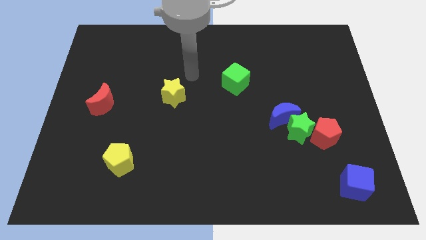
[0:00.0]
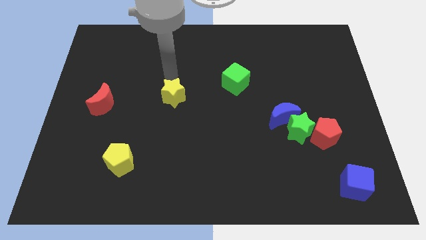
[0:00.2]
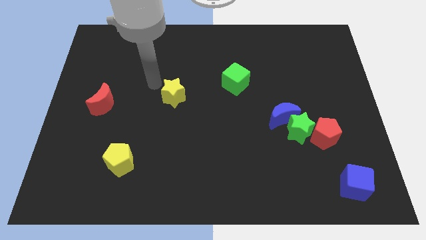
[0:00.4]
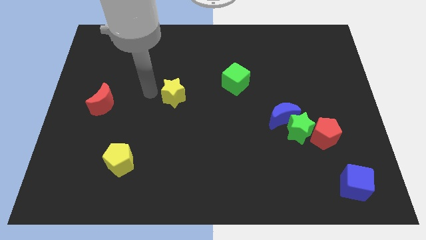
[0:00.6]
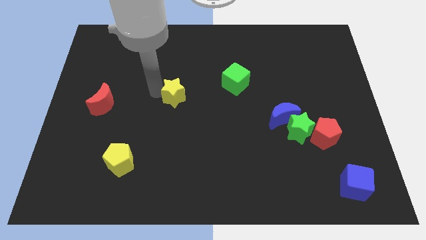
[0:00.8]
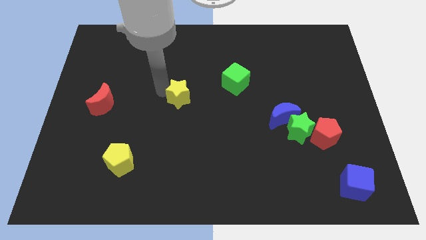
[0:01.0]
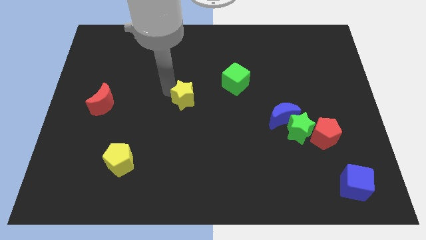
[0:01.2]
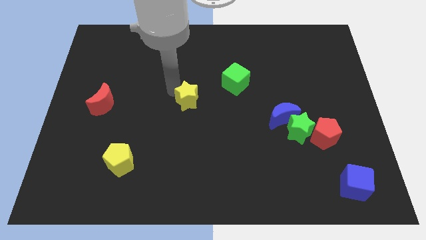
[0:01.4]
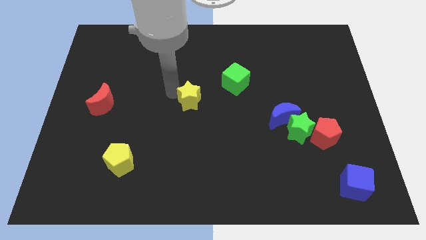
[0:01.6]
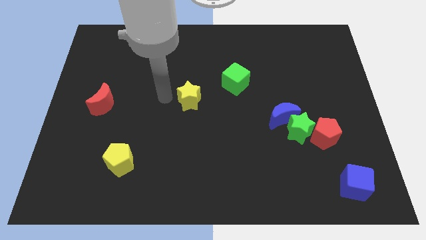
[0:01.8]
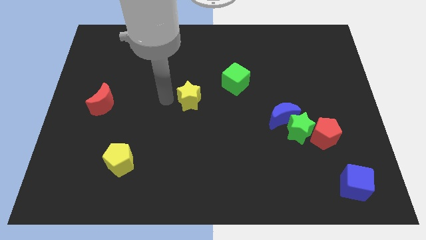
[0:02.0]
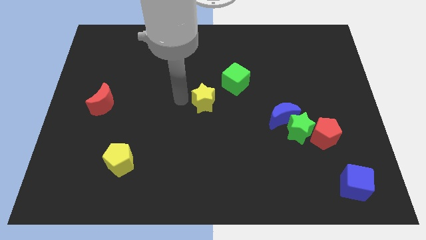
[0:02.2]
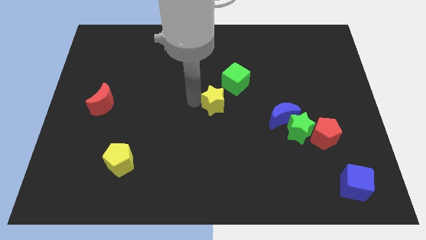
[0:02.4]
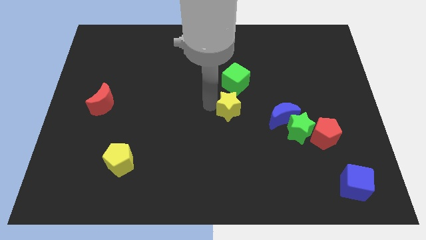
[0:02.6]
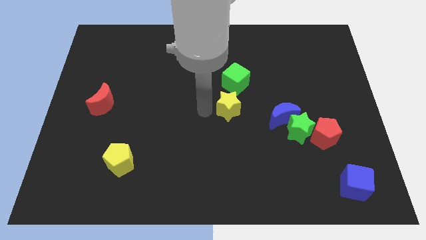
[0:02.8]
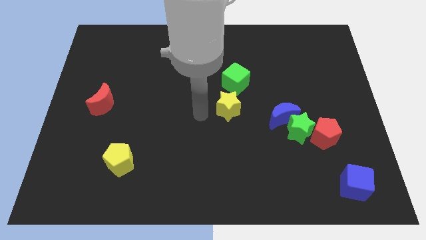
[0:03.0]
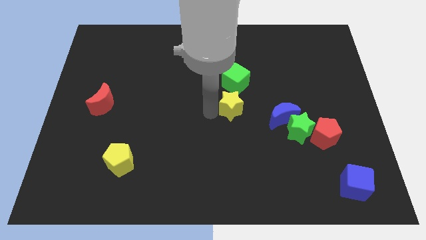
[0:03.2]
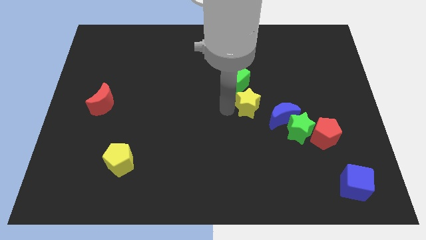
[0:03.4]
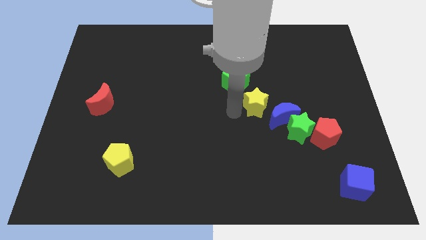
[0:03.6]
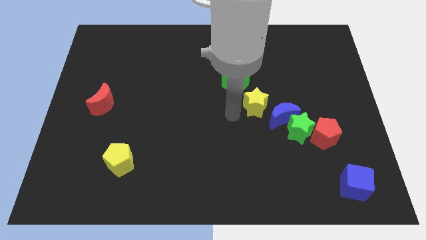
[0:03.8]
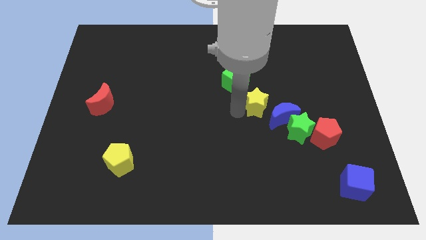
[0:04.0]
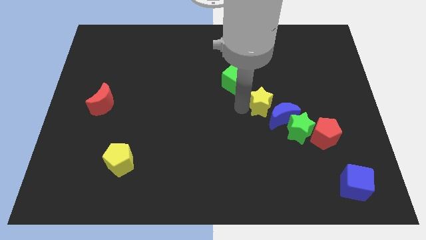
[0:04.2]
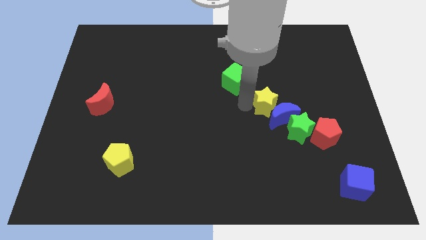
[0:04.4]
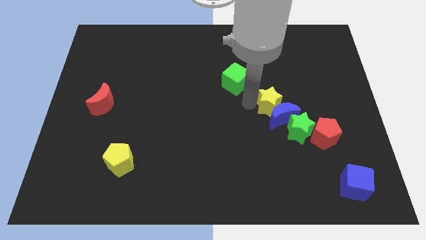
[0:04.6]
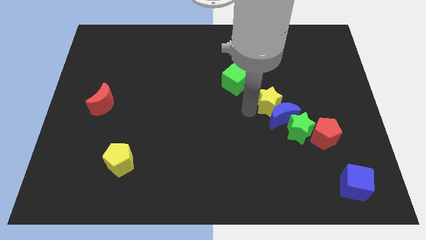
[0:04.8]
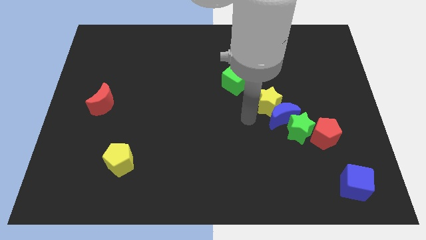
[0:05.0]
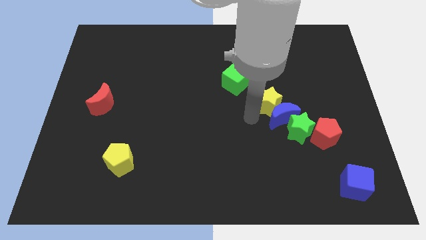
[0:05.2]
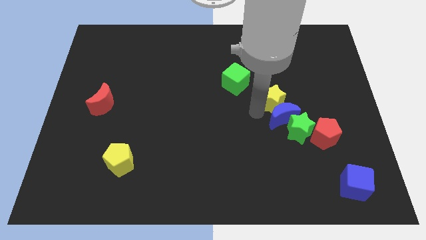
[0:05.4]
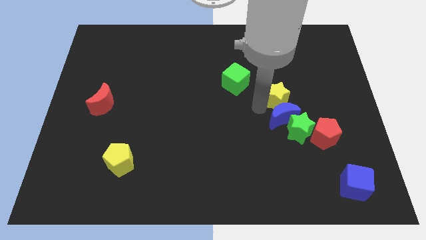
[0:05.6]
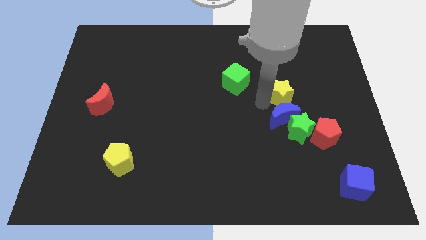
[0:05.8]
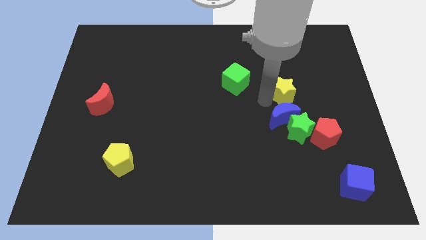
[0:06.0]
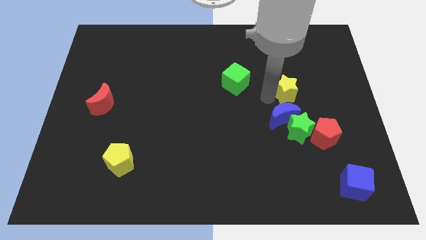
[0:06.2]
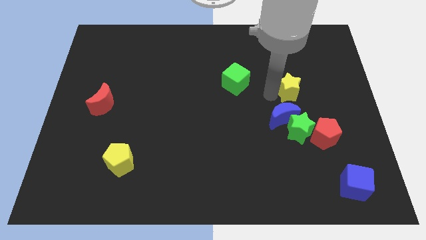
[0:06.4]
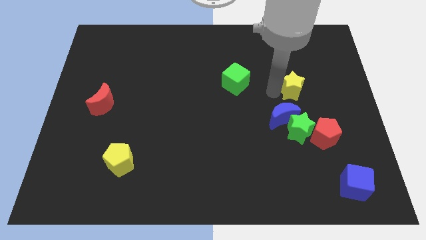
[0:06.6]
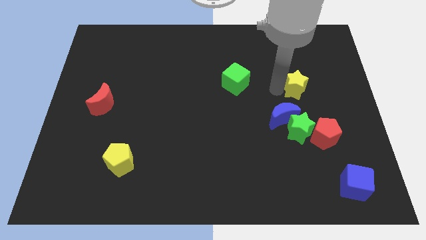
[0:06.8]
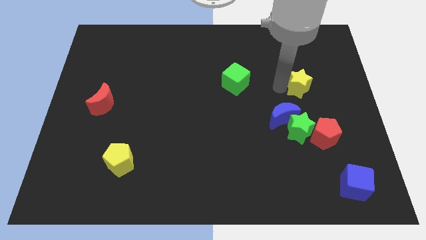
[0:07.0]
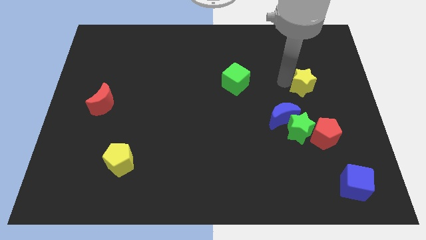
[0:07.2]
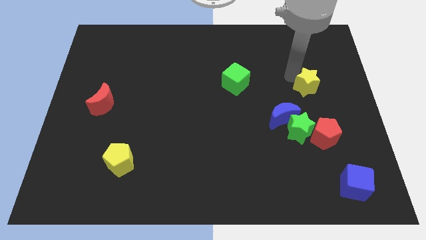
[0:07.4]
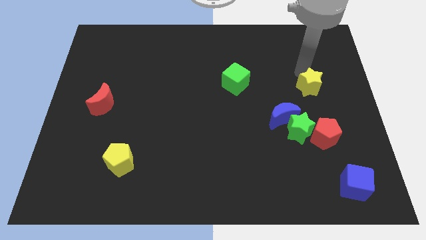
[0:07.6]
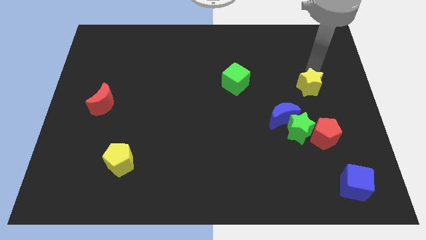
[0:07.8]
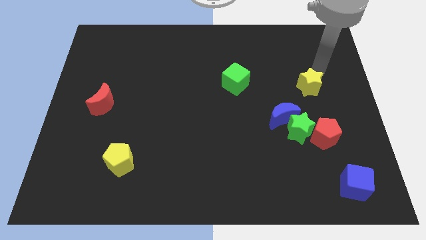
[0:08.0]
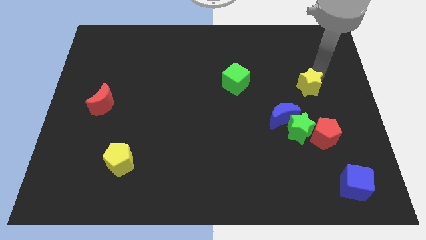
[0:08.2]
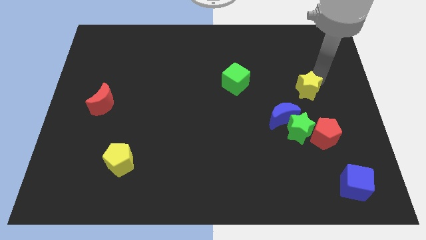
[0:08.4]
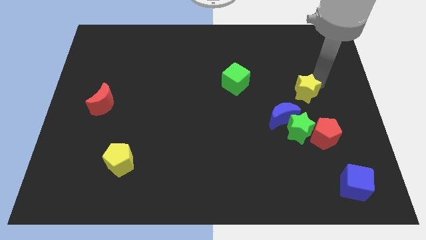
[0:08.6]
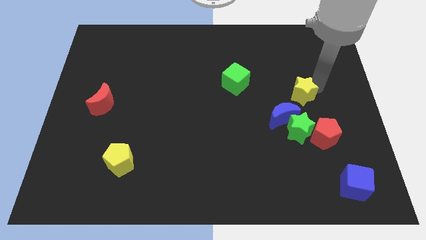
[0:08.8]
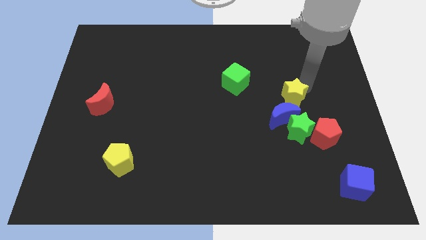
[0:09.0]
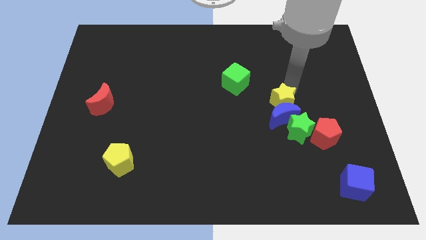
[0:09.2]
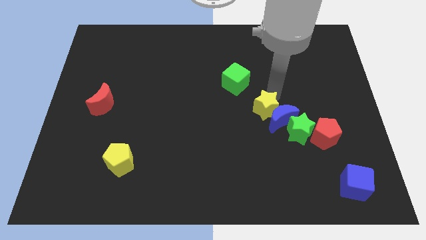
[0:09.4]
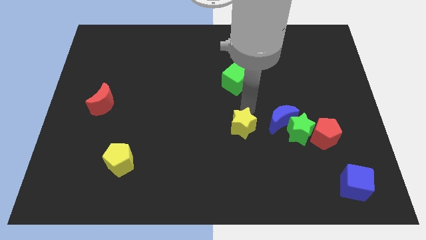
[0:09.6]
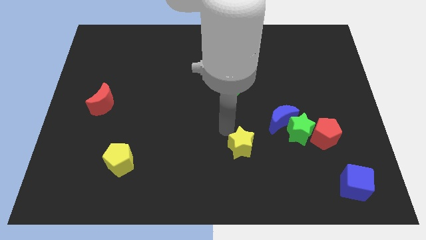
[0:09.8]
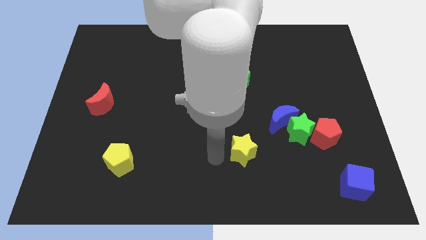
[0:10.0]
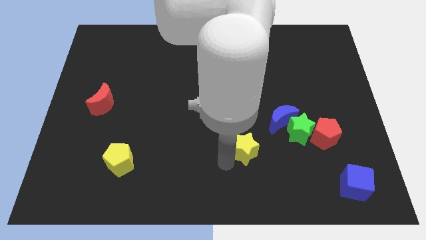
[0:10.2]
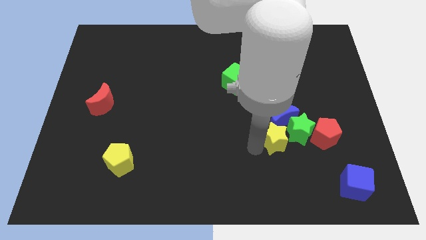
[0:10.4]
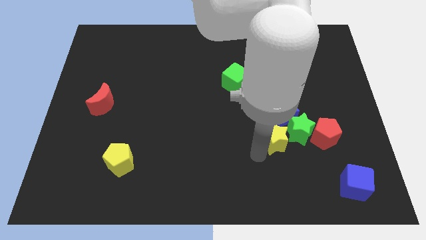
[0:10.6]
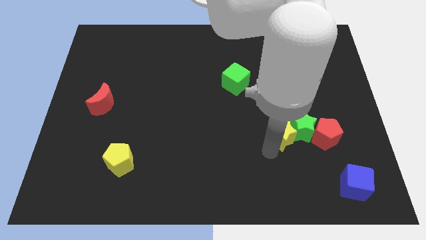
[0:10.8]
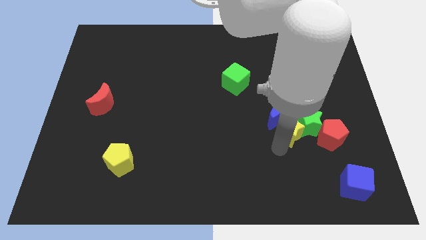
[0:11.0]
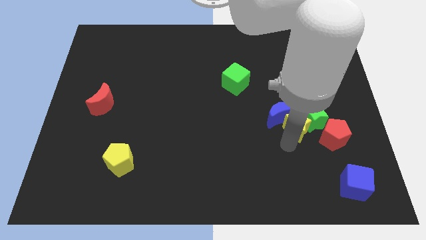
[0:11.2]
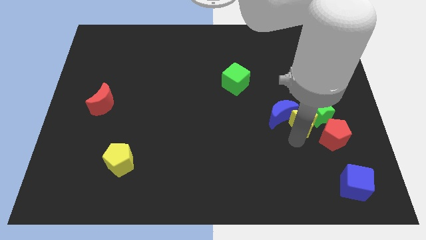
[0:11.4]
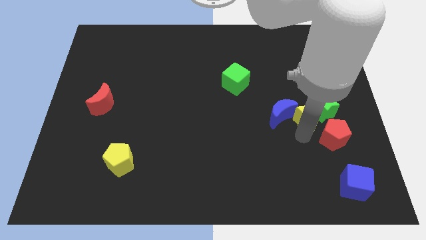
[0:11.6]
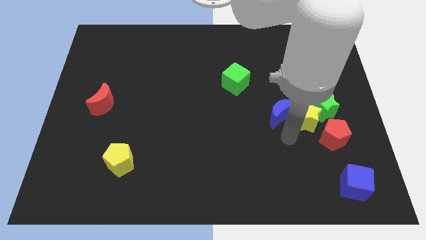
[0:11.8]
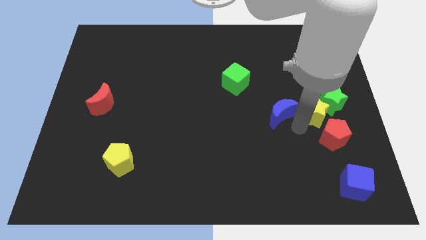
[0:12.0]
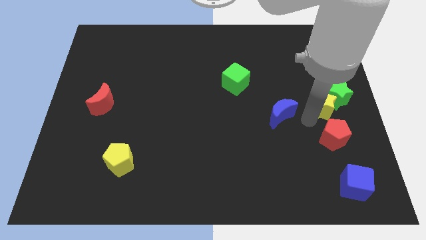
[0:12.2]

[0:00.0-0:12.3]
slide the yellow star to the center right

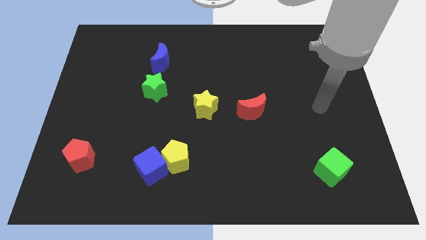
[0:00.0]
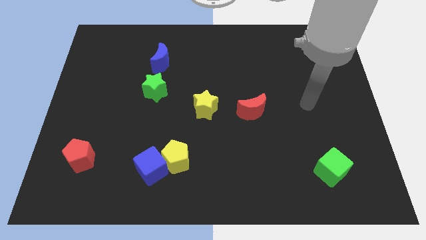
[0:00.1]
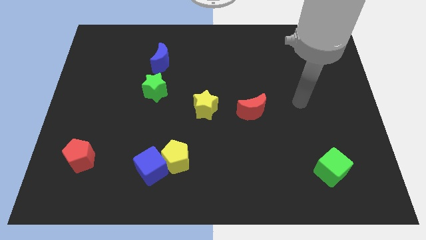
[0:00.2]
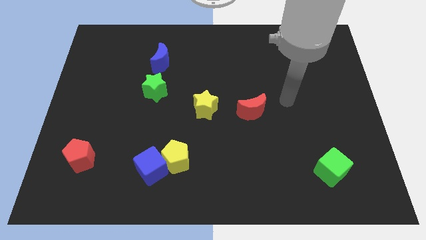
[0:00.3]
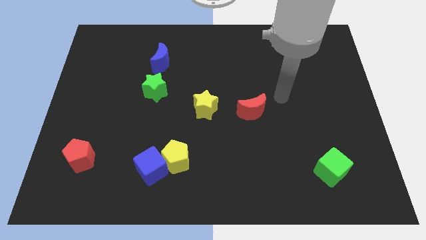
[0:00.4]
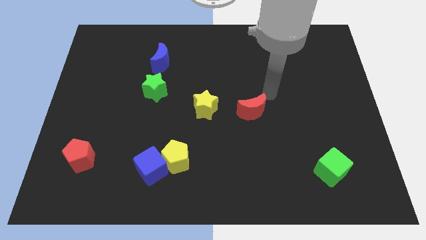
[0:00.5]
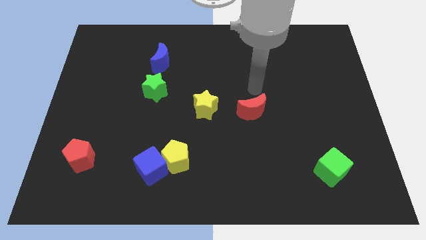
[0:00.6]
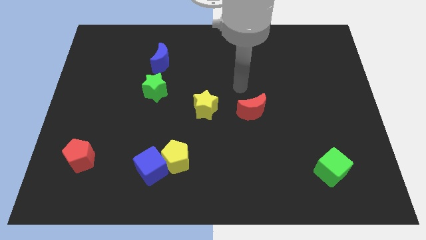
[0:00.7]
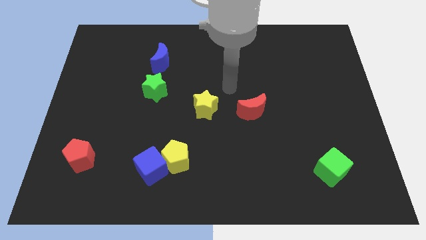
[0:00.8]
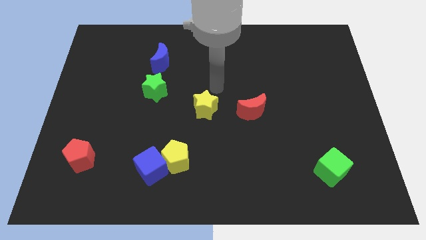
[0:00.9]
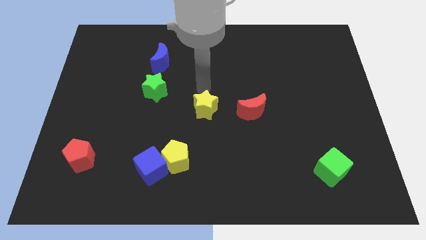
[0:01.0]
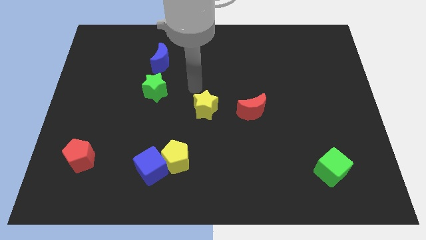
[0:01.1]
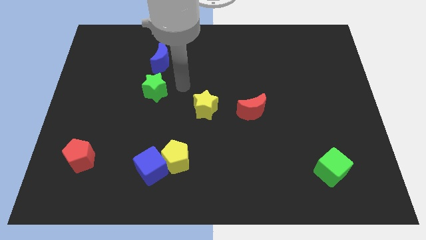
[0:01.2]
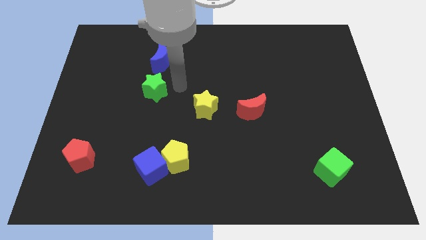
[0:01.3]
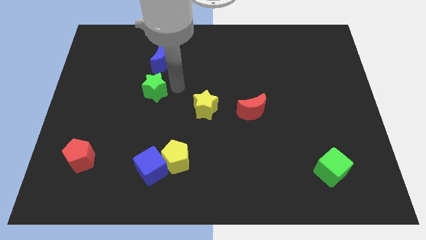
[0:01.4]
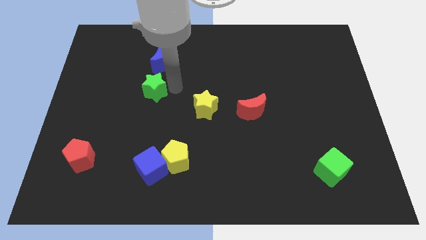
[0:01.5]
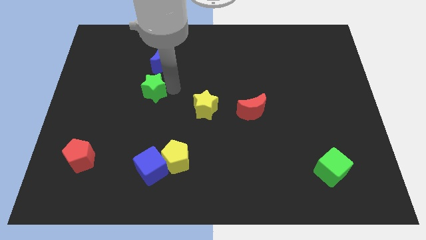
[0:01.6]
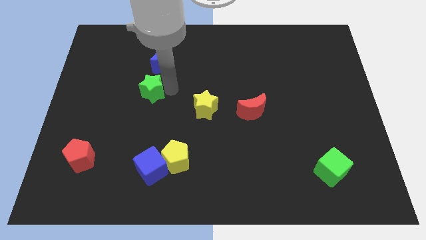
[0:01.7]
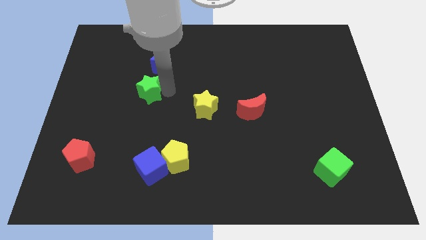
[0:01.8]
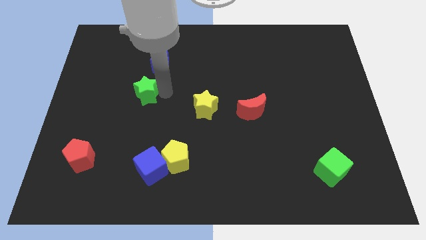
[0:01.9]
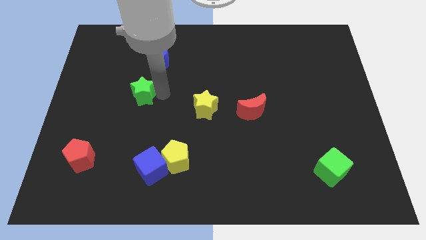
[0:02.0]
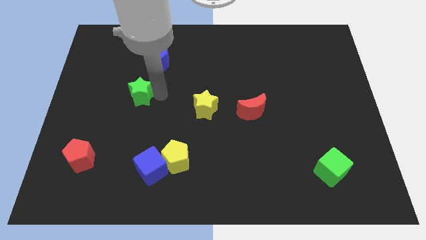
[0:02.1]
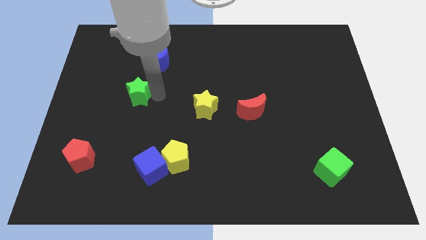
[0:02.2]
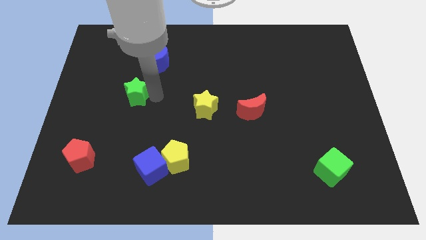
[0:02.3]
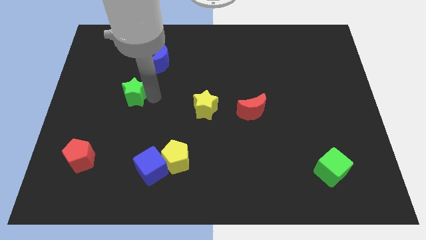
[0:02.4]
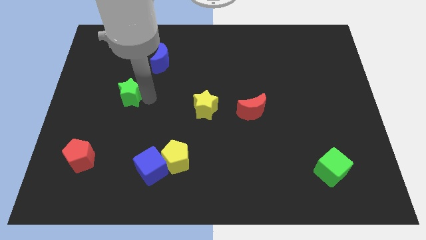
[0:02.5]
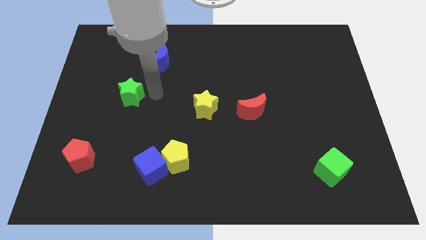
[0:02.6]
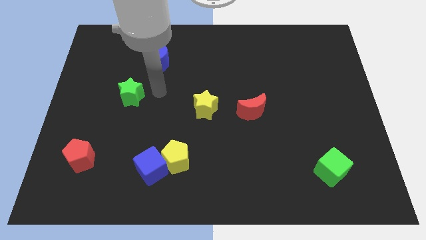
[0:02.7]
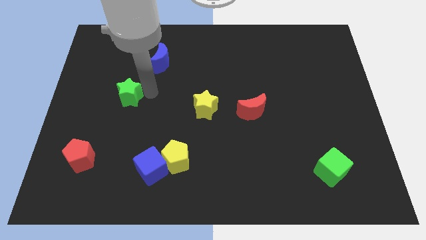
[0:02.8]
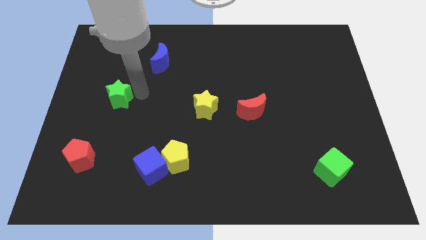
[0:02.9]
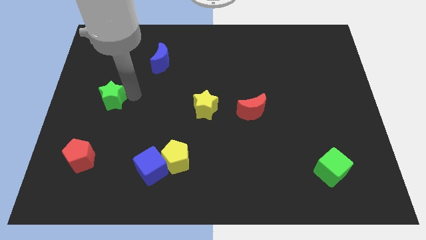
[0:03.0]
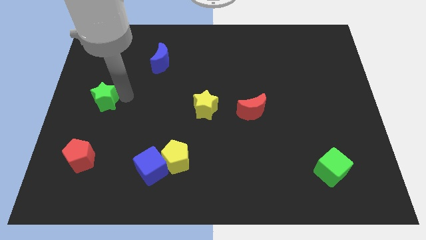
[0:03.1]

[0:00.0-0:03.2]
put the green star to the left side of the board
